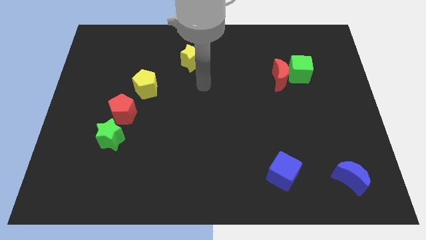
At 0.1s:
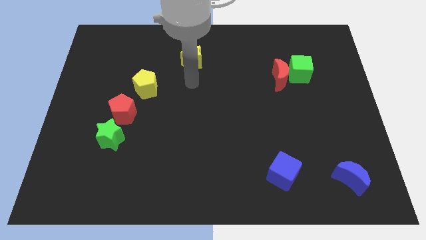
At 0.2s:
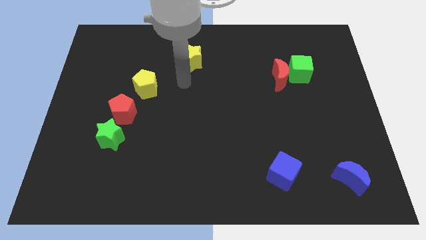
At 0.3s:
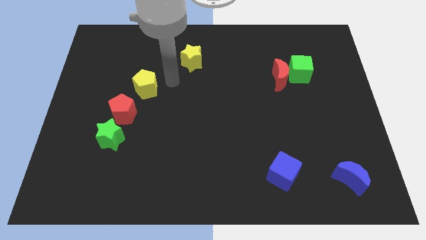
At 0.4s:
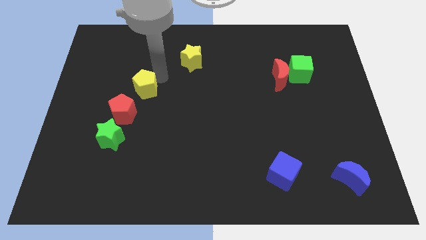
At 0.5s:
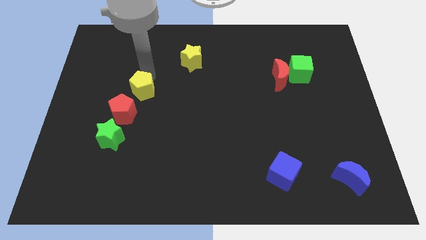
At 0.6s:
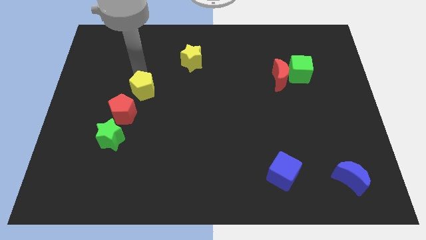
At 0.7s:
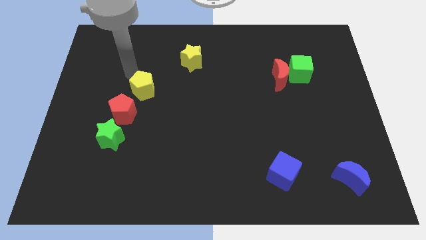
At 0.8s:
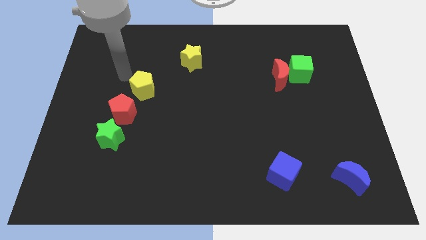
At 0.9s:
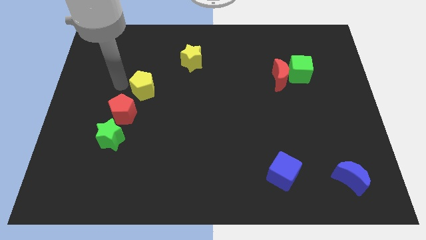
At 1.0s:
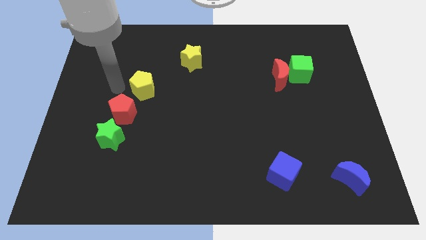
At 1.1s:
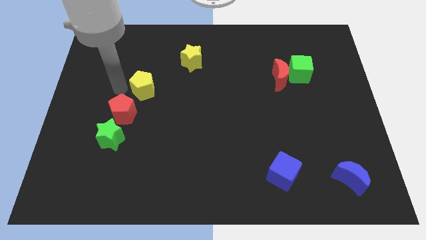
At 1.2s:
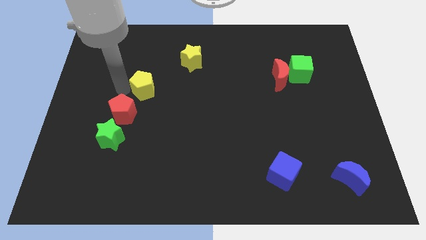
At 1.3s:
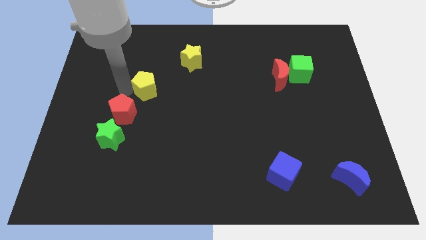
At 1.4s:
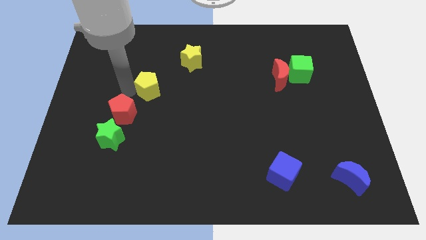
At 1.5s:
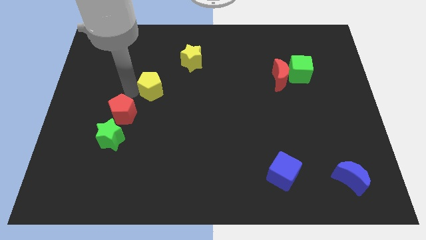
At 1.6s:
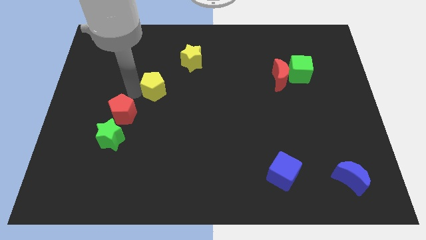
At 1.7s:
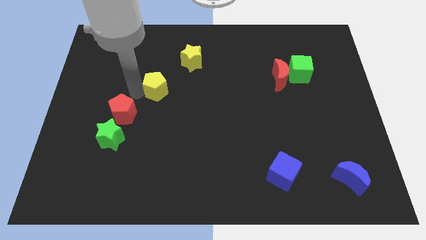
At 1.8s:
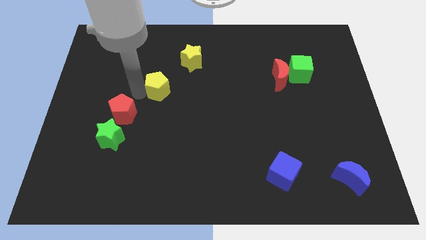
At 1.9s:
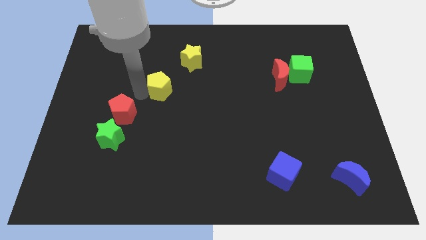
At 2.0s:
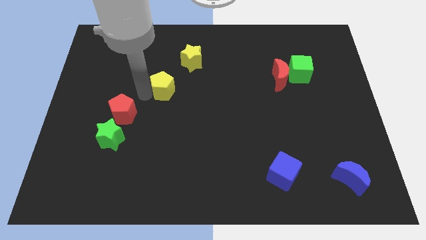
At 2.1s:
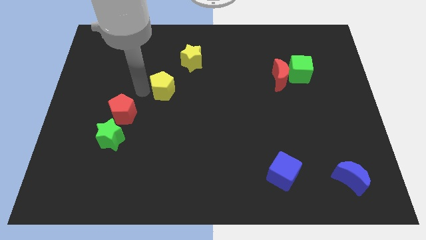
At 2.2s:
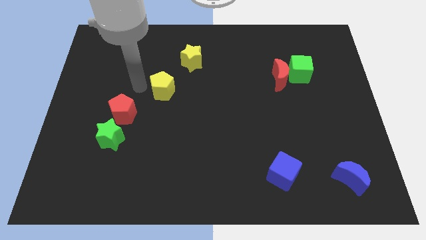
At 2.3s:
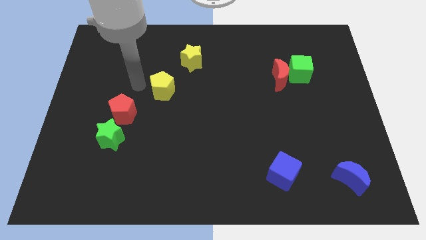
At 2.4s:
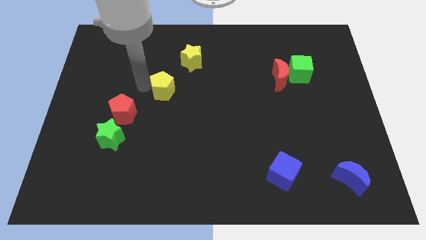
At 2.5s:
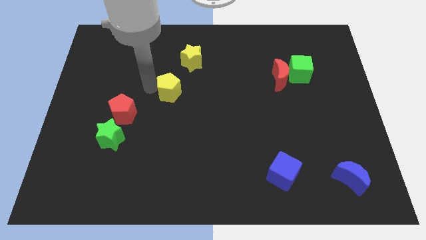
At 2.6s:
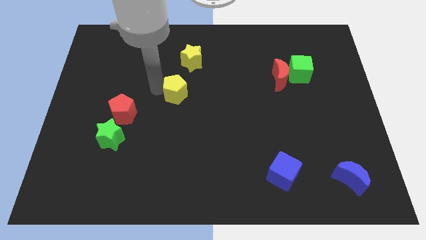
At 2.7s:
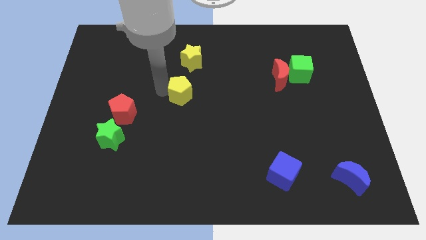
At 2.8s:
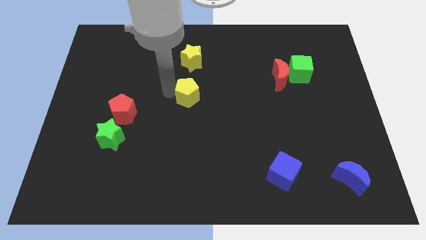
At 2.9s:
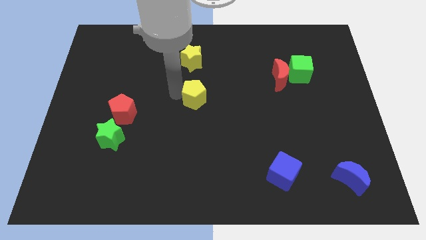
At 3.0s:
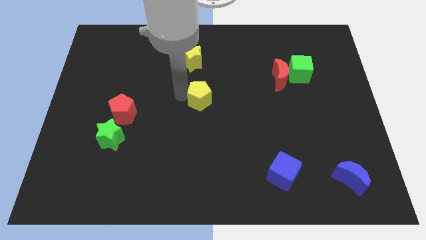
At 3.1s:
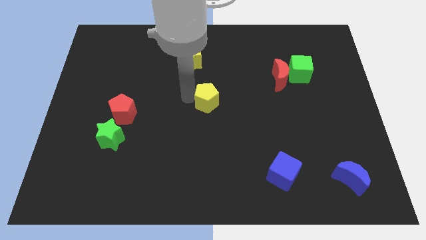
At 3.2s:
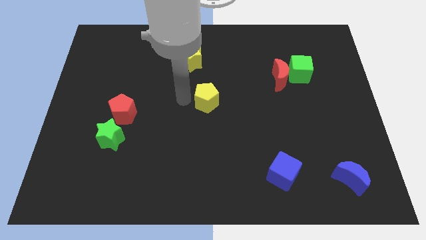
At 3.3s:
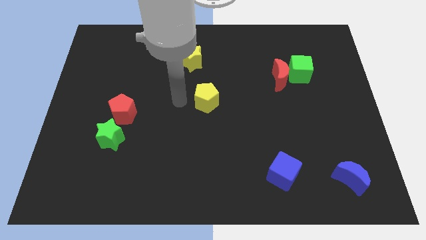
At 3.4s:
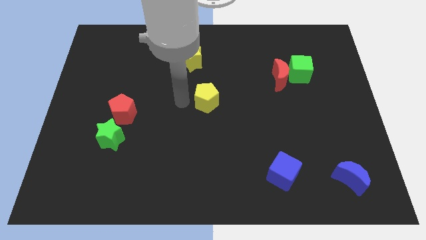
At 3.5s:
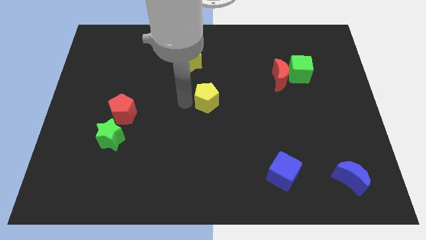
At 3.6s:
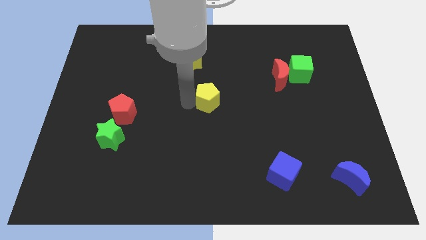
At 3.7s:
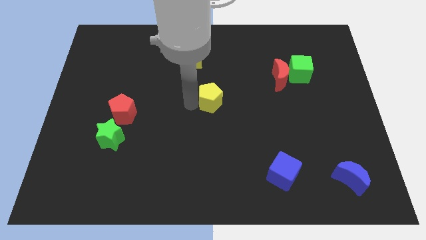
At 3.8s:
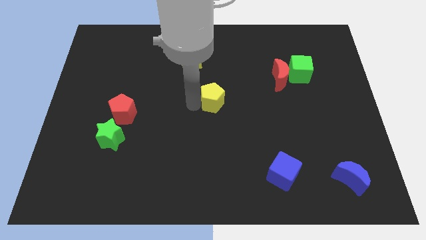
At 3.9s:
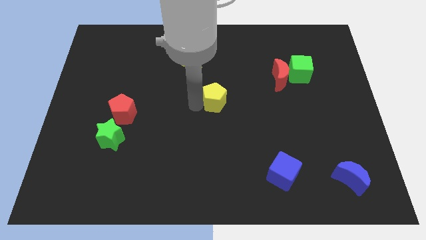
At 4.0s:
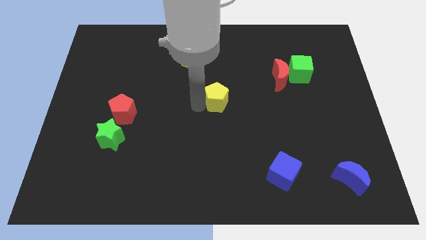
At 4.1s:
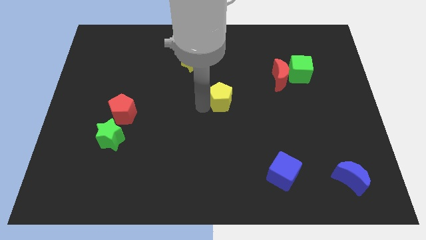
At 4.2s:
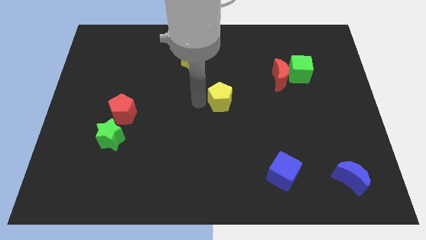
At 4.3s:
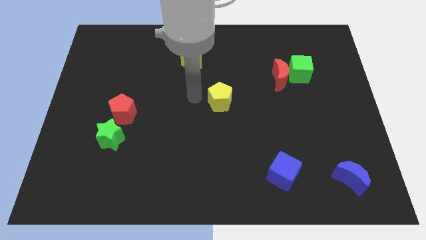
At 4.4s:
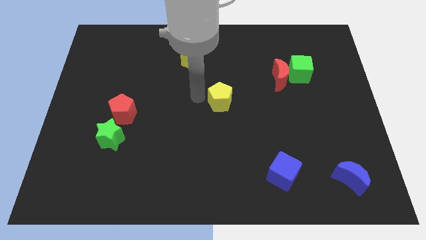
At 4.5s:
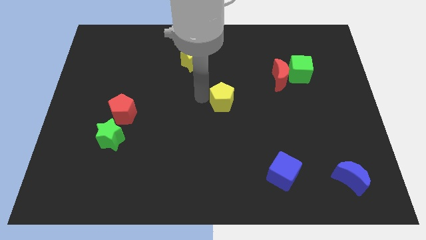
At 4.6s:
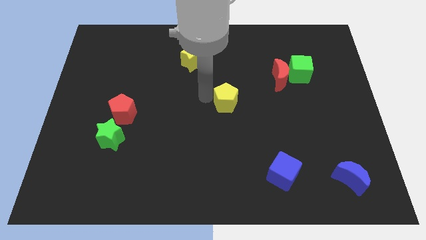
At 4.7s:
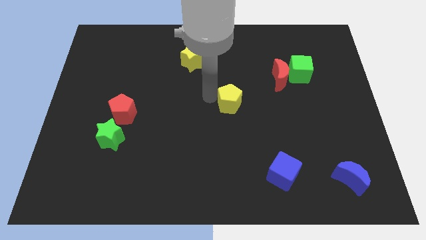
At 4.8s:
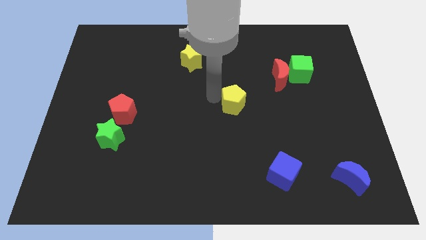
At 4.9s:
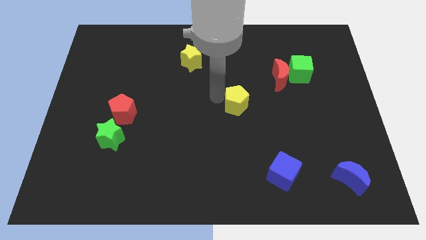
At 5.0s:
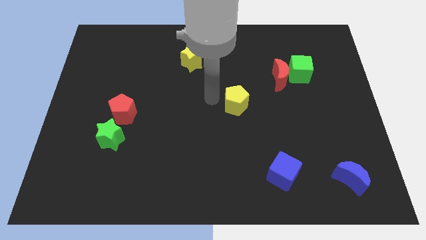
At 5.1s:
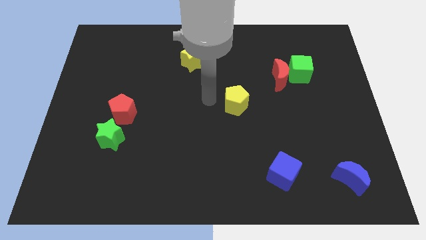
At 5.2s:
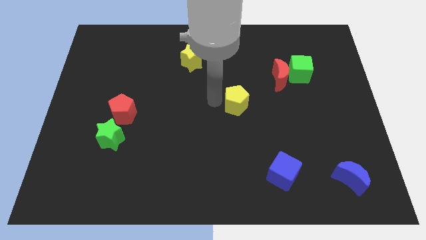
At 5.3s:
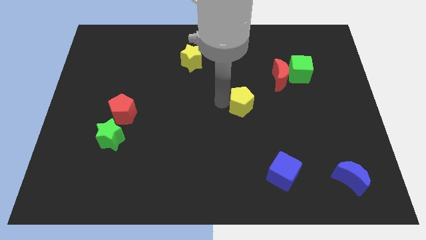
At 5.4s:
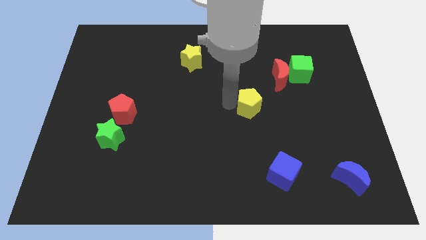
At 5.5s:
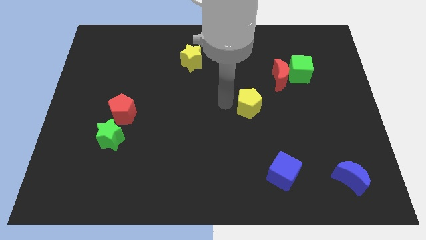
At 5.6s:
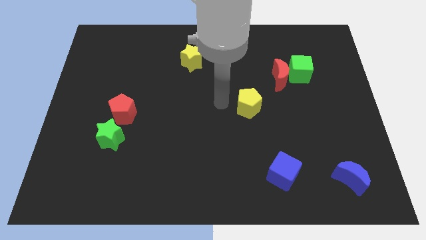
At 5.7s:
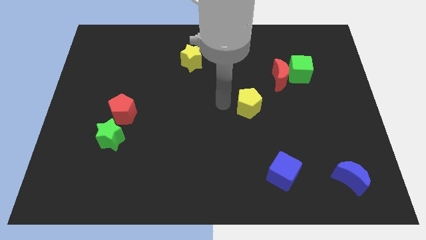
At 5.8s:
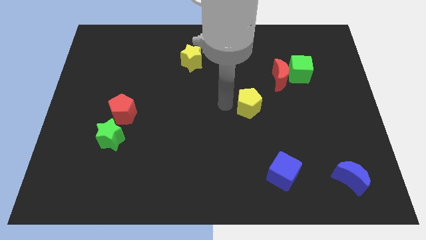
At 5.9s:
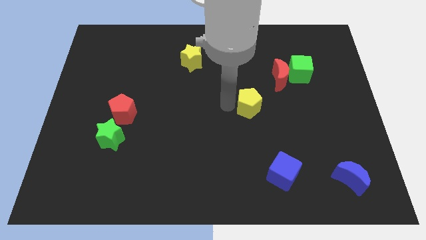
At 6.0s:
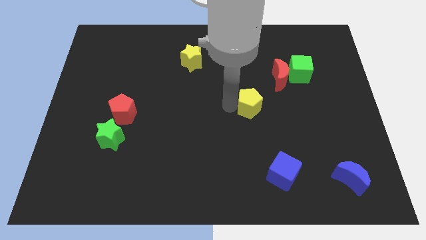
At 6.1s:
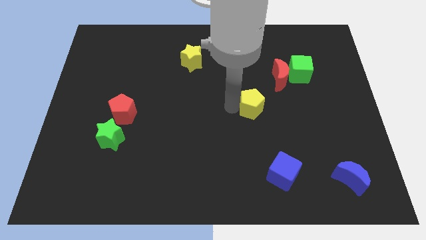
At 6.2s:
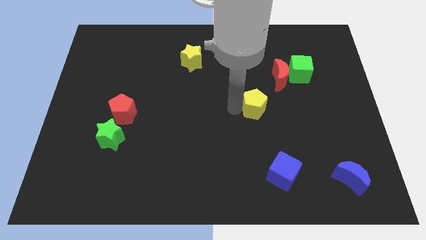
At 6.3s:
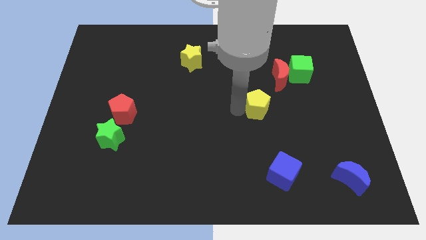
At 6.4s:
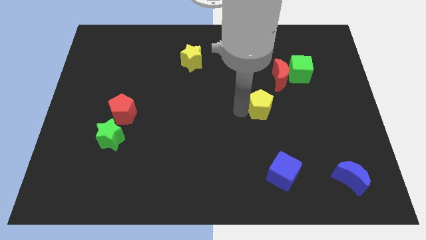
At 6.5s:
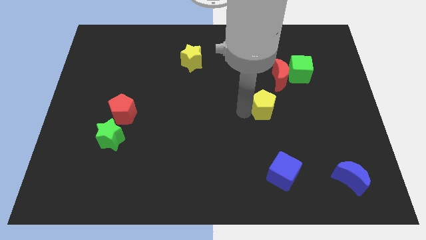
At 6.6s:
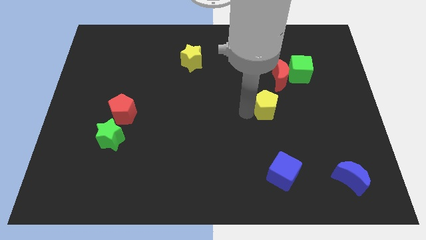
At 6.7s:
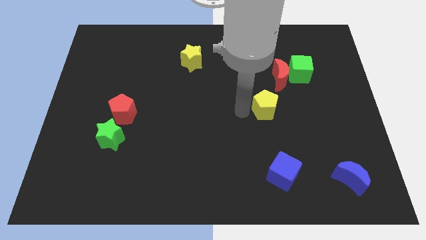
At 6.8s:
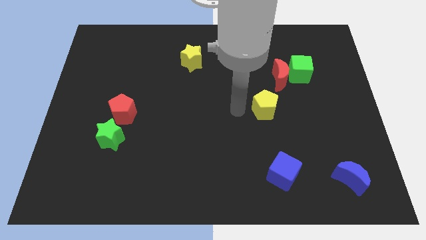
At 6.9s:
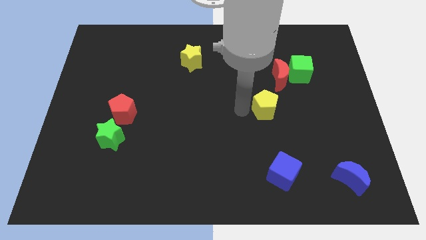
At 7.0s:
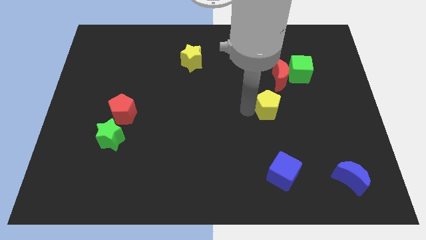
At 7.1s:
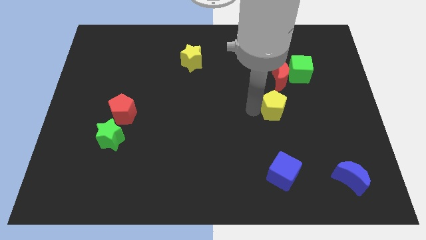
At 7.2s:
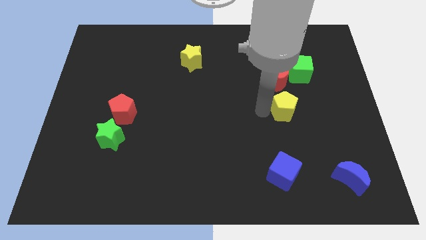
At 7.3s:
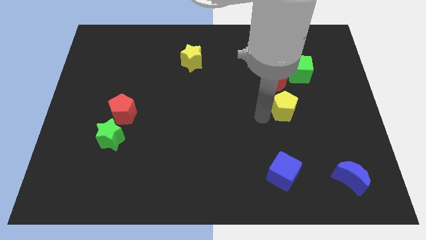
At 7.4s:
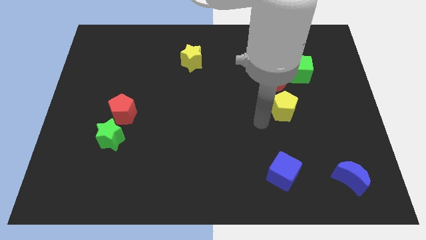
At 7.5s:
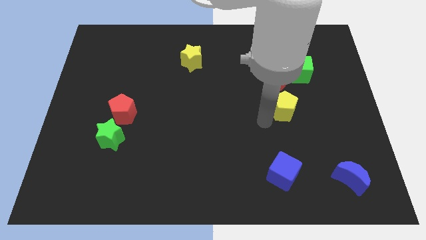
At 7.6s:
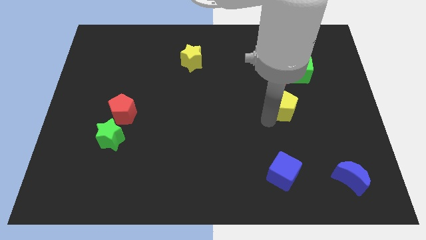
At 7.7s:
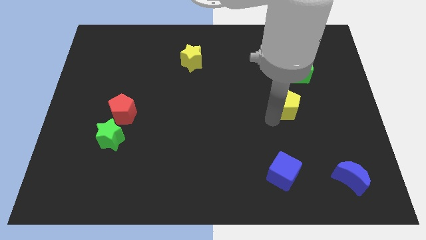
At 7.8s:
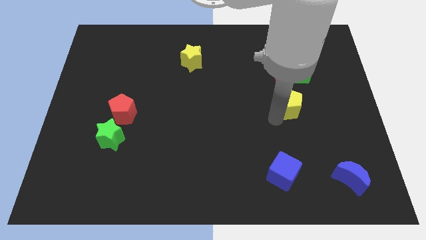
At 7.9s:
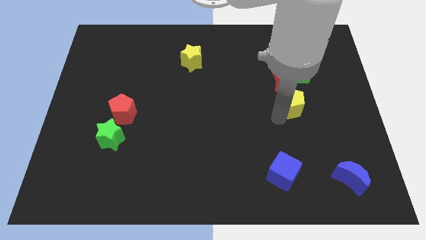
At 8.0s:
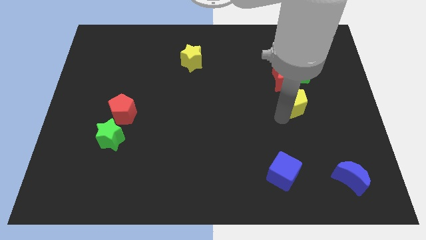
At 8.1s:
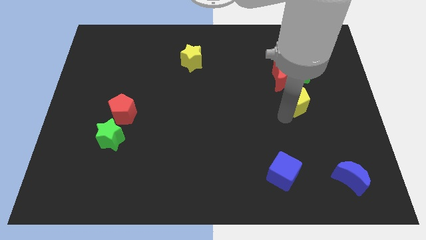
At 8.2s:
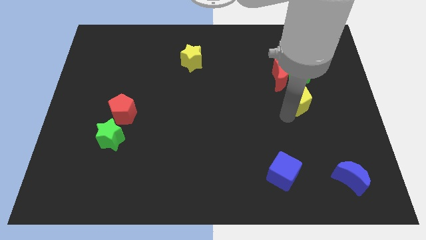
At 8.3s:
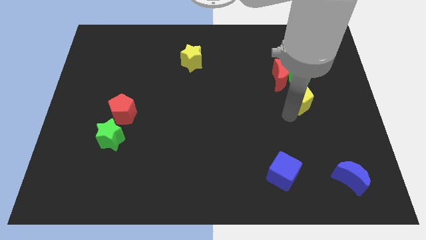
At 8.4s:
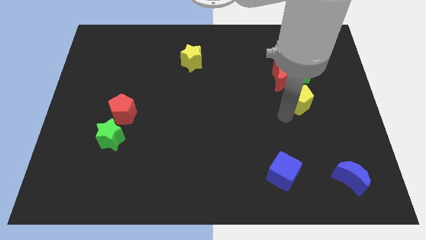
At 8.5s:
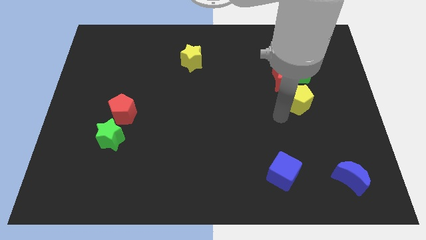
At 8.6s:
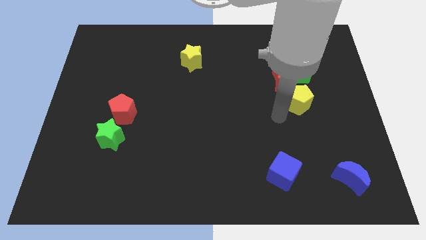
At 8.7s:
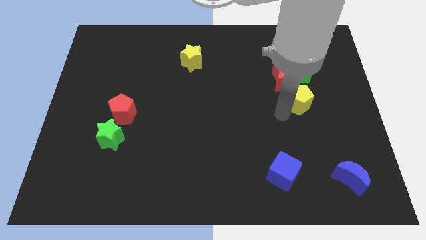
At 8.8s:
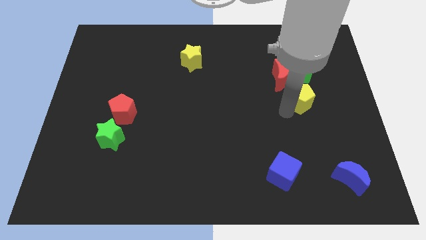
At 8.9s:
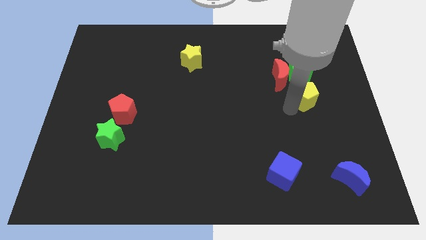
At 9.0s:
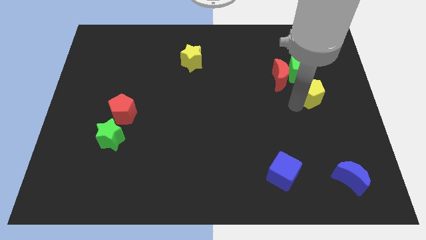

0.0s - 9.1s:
put the yellow pentagon diagonally down and to the right of the green cube
